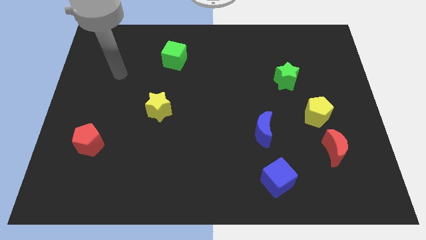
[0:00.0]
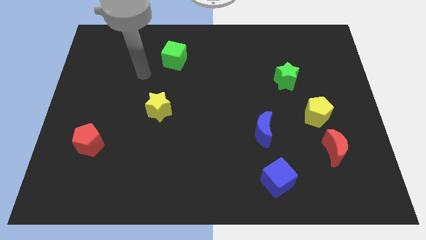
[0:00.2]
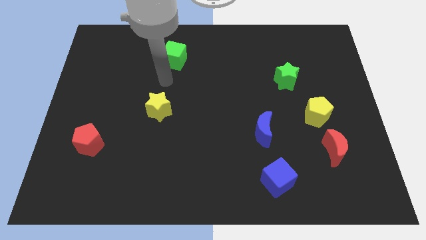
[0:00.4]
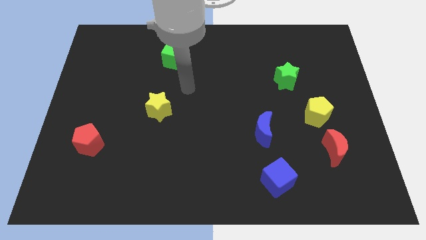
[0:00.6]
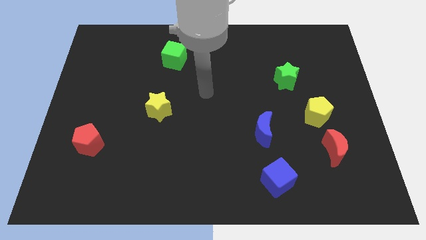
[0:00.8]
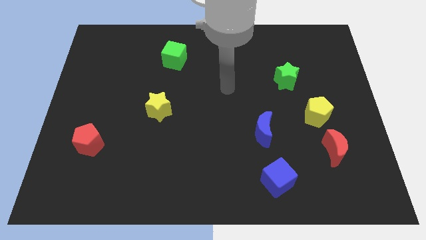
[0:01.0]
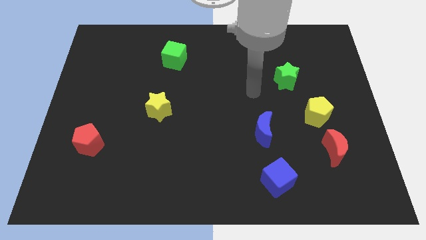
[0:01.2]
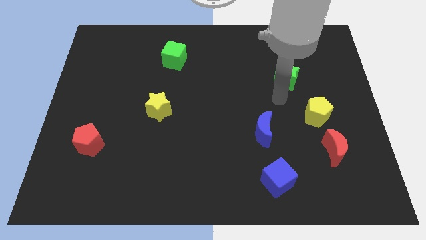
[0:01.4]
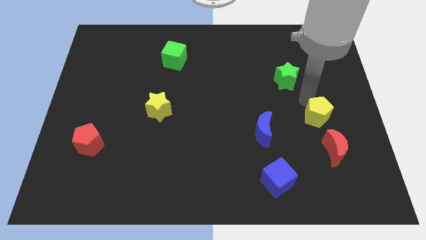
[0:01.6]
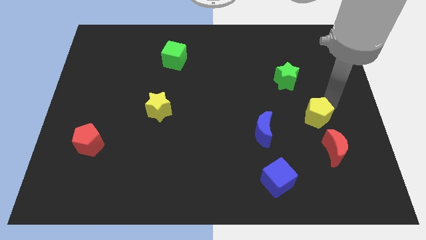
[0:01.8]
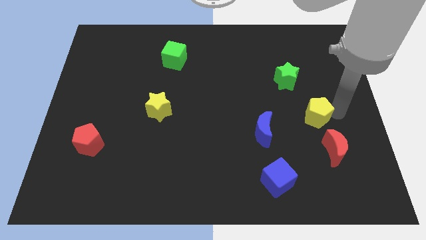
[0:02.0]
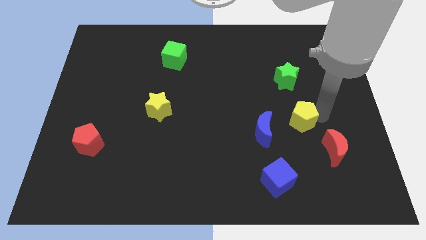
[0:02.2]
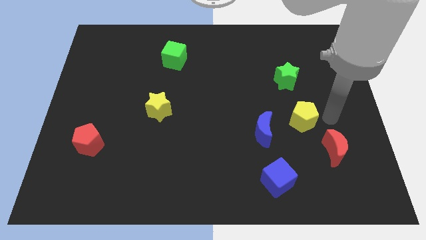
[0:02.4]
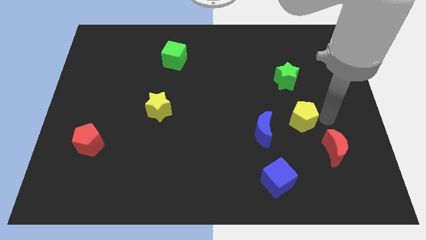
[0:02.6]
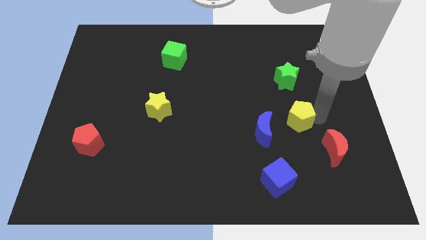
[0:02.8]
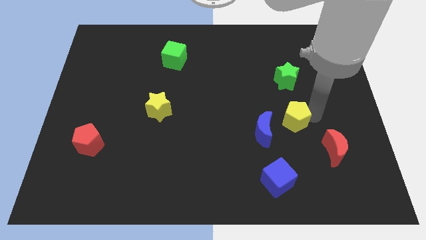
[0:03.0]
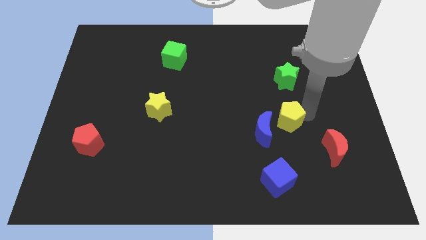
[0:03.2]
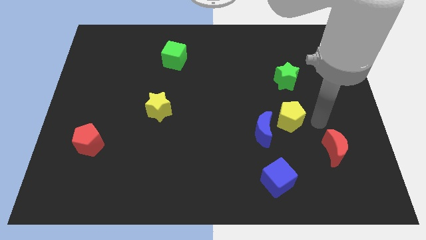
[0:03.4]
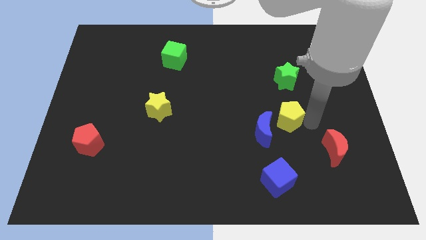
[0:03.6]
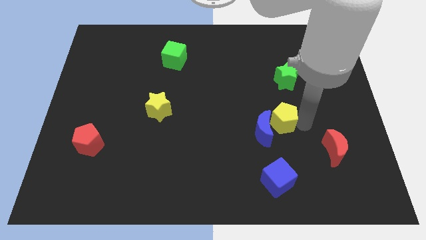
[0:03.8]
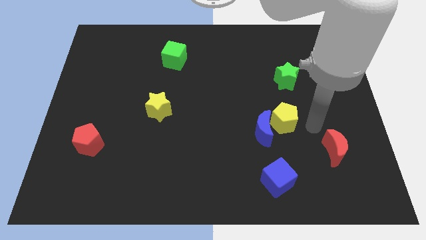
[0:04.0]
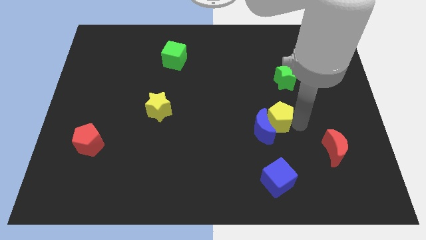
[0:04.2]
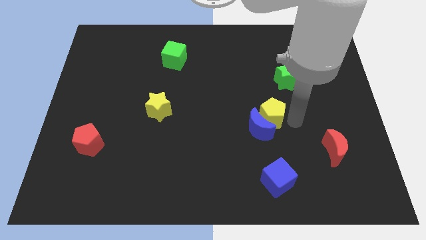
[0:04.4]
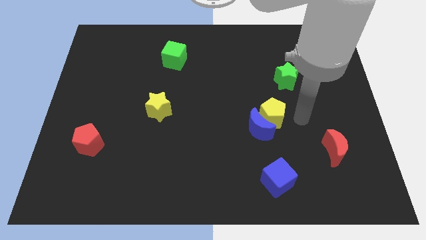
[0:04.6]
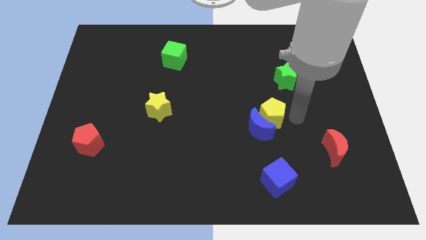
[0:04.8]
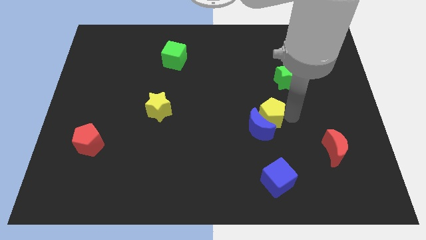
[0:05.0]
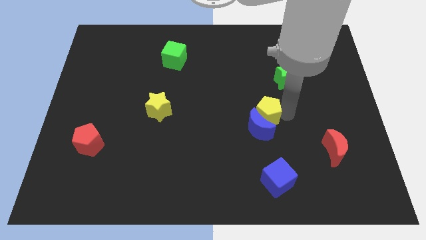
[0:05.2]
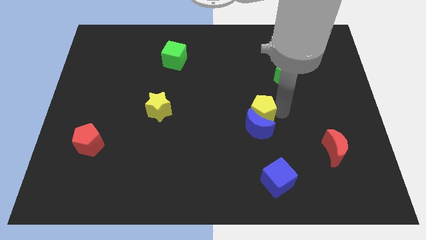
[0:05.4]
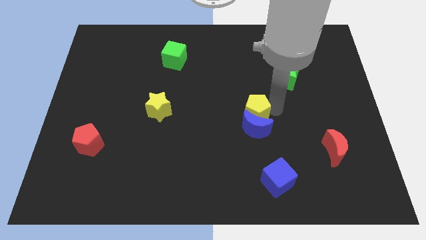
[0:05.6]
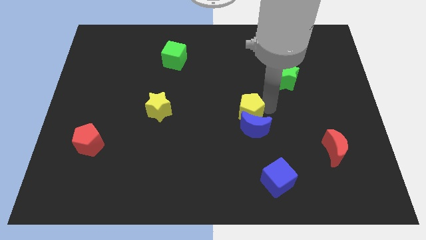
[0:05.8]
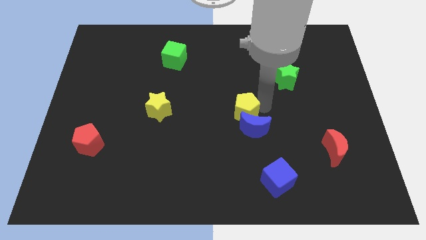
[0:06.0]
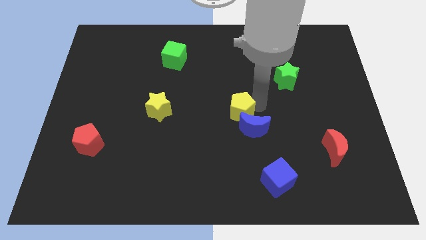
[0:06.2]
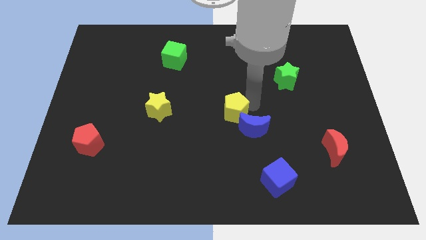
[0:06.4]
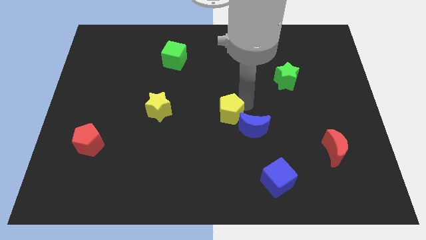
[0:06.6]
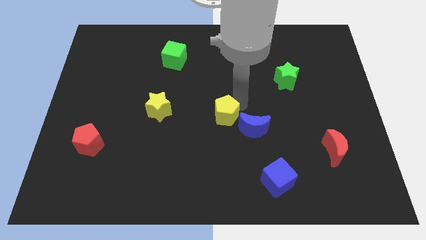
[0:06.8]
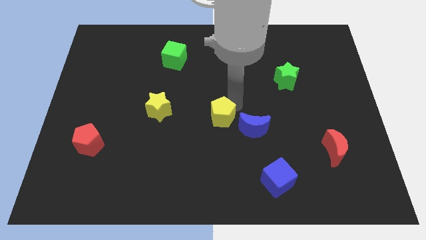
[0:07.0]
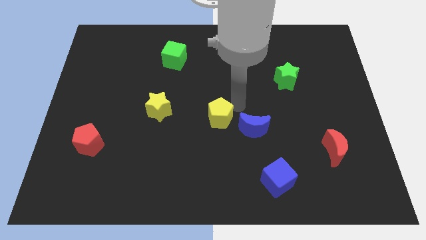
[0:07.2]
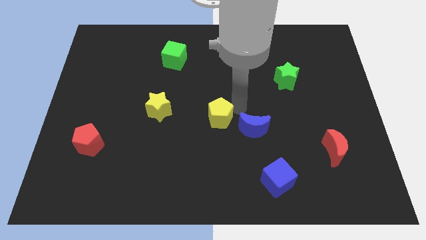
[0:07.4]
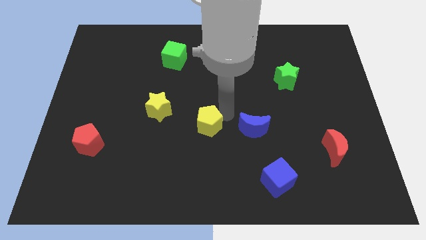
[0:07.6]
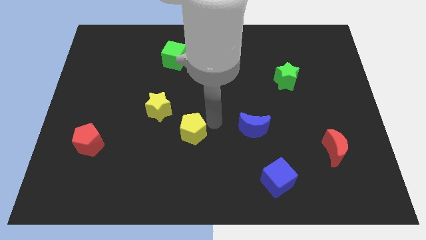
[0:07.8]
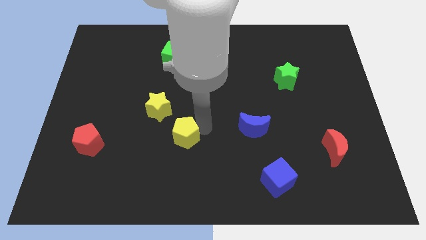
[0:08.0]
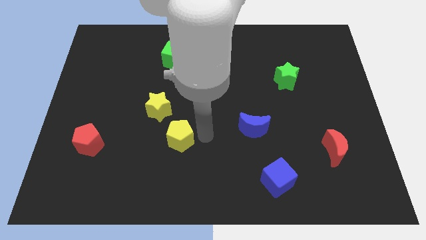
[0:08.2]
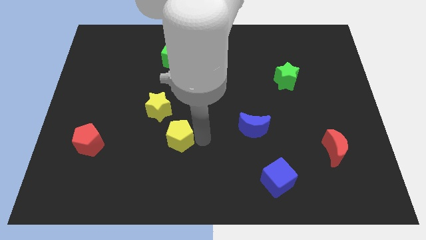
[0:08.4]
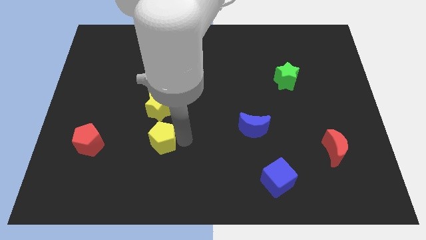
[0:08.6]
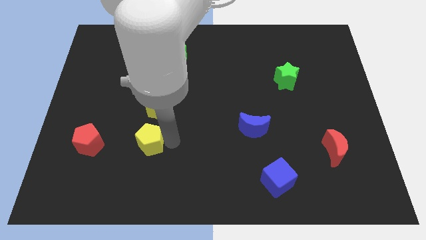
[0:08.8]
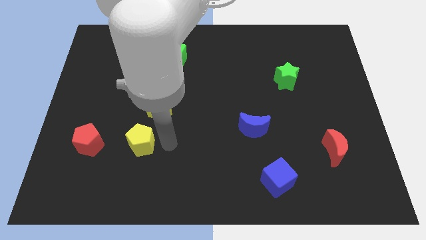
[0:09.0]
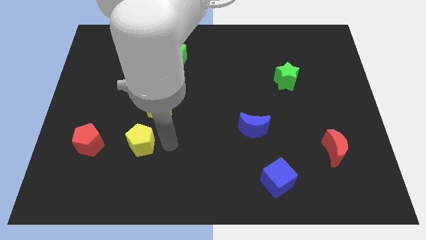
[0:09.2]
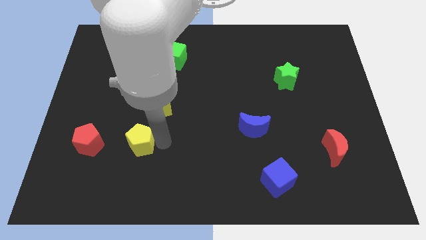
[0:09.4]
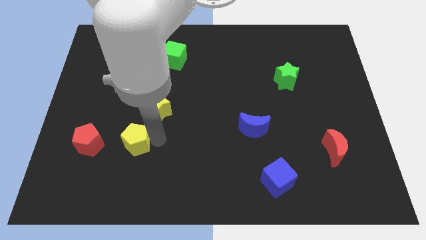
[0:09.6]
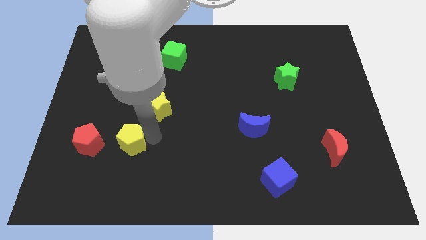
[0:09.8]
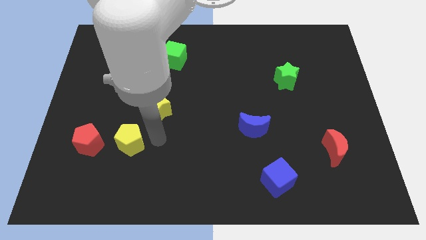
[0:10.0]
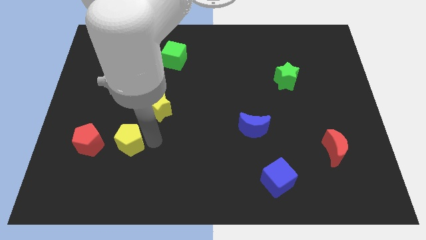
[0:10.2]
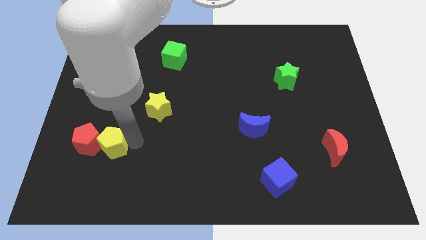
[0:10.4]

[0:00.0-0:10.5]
push the yellow pentagon next to the red pentagon

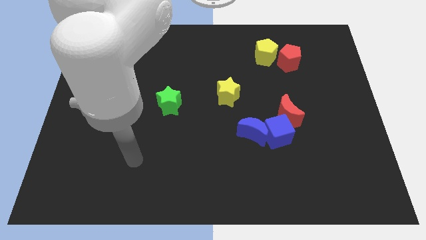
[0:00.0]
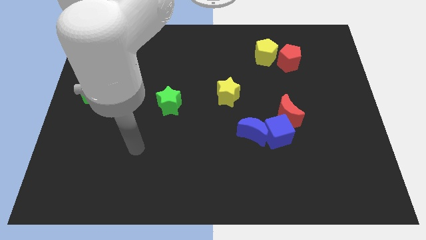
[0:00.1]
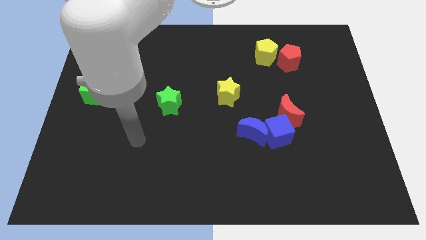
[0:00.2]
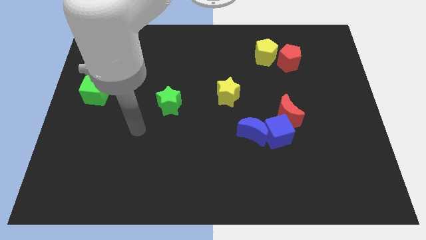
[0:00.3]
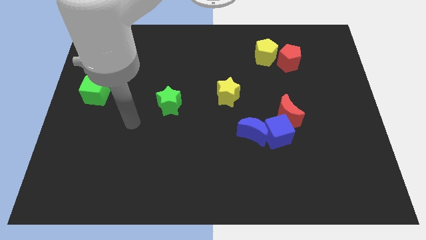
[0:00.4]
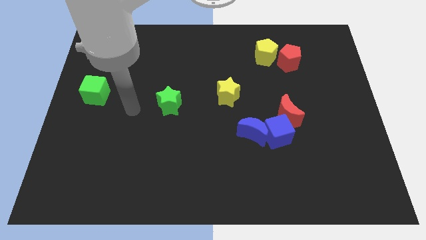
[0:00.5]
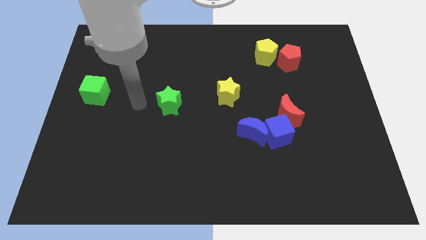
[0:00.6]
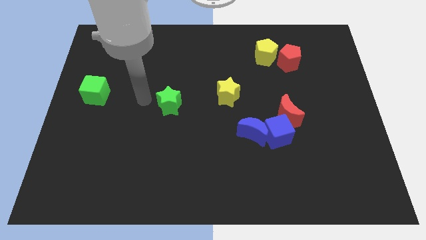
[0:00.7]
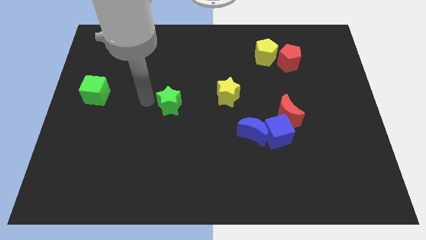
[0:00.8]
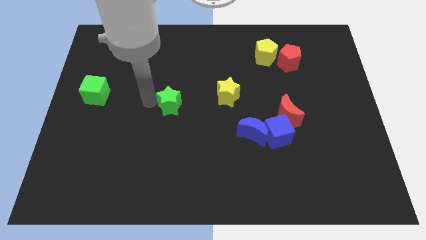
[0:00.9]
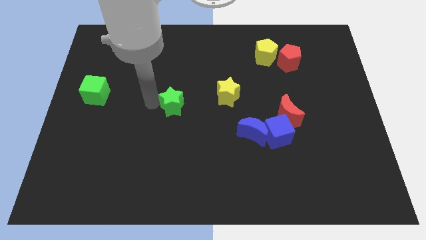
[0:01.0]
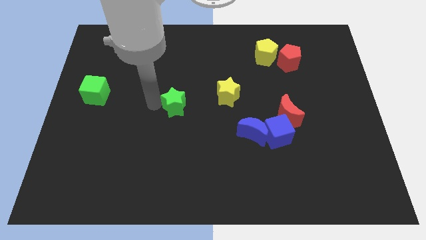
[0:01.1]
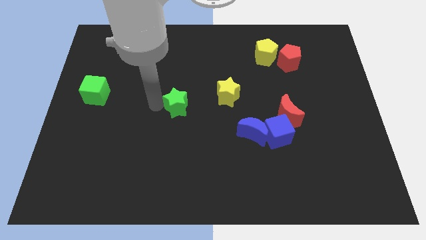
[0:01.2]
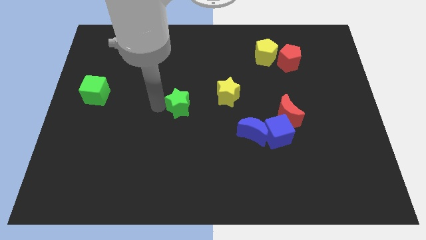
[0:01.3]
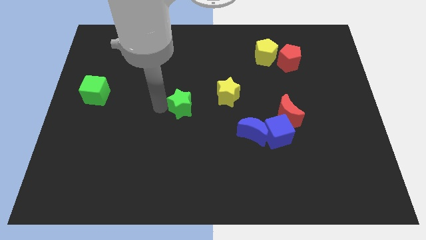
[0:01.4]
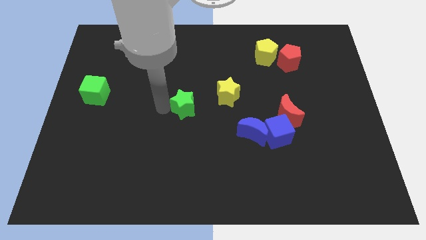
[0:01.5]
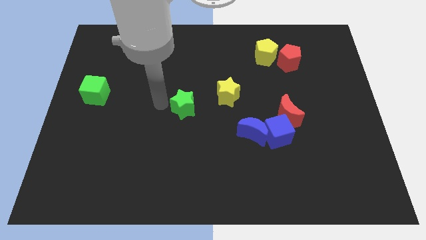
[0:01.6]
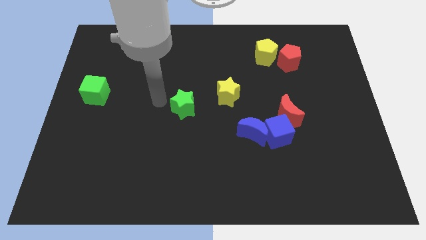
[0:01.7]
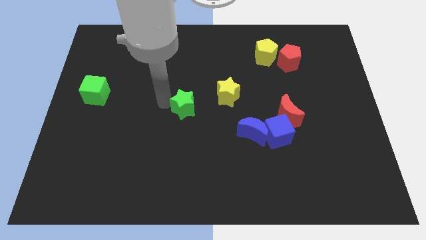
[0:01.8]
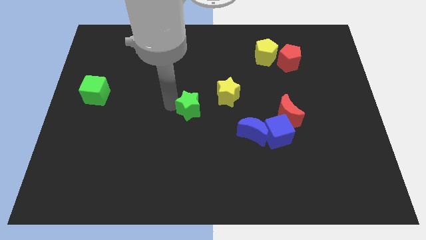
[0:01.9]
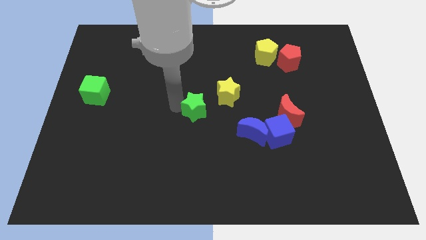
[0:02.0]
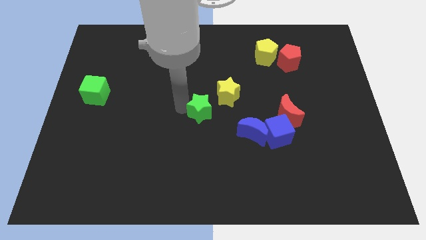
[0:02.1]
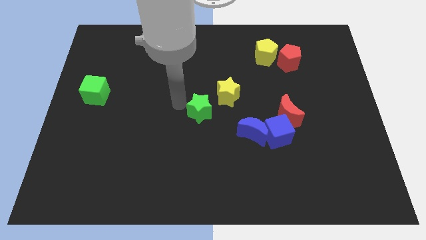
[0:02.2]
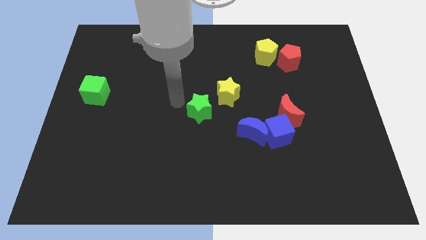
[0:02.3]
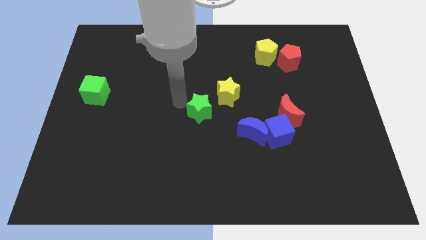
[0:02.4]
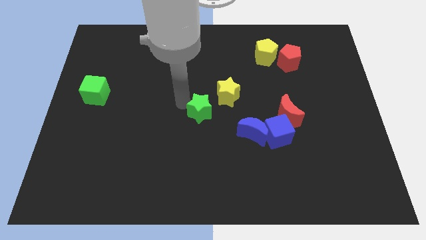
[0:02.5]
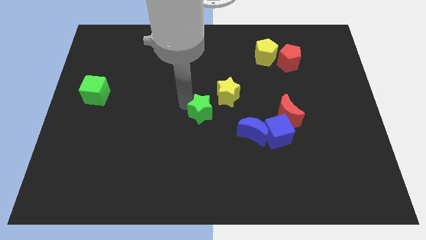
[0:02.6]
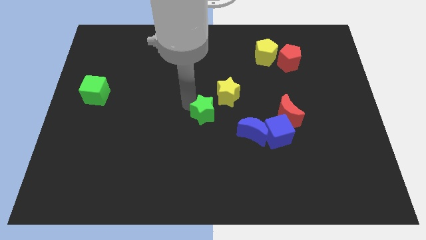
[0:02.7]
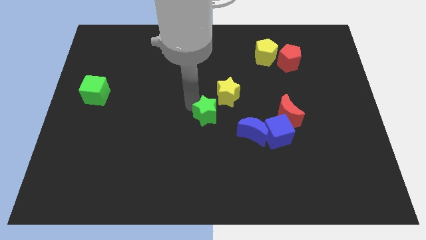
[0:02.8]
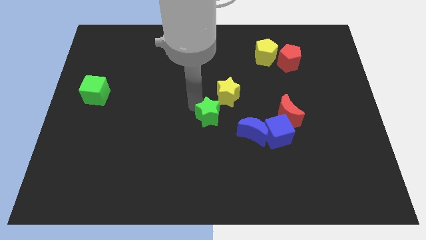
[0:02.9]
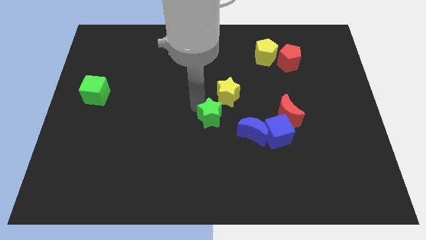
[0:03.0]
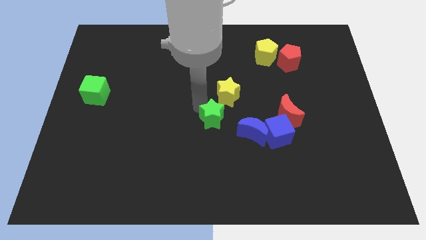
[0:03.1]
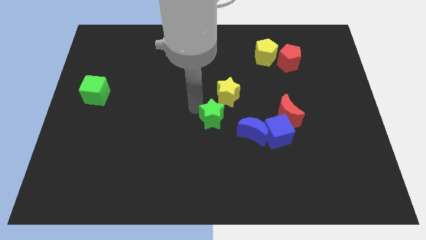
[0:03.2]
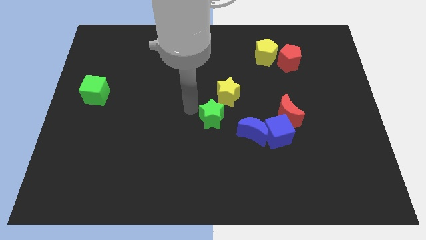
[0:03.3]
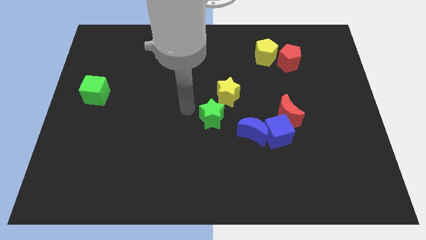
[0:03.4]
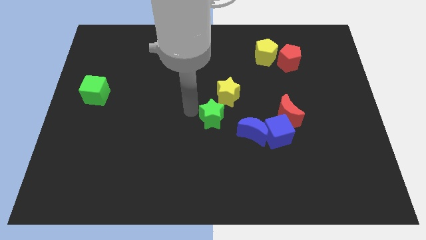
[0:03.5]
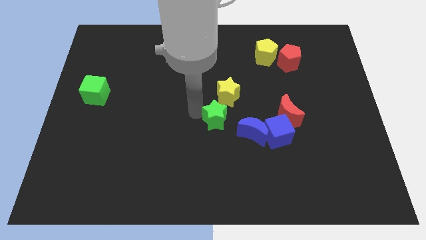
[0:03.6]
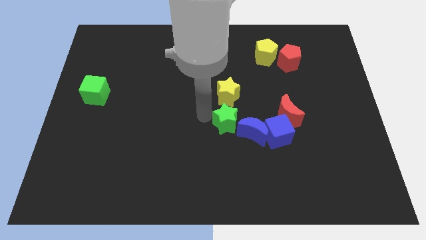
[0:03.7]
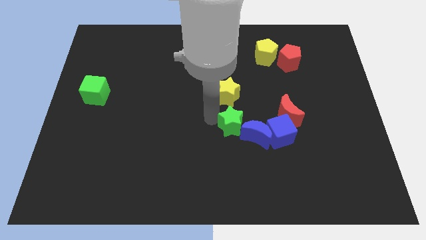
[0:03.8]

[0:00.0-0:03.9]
push the green star next to the blue moon
